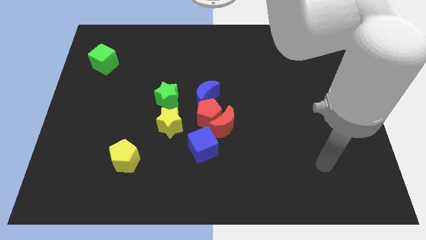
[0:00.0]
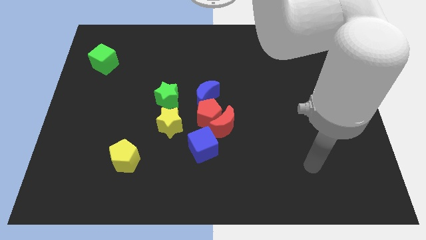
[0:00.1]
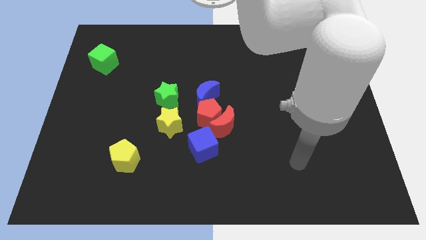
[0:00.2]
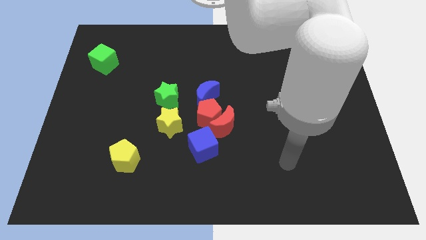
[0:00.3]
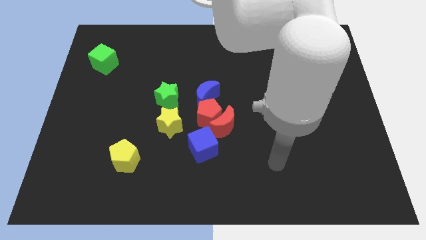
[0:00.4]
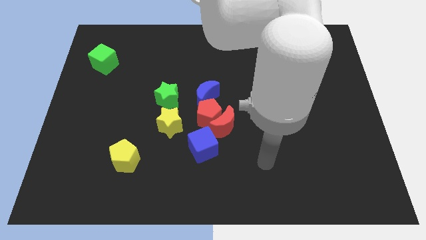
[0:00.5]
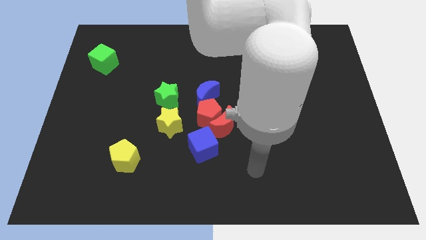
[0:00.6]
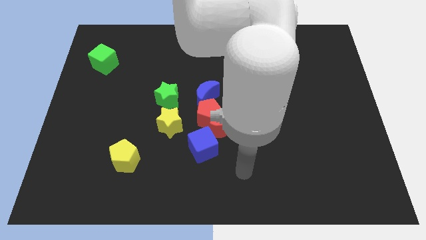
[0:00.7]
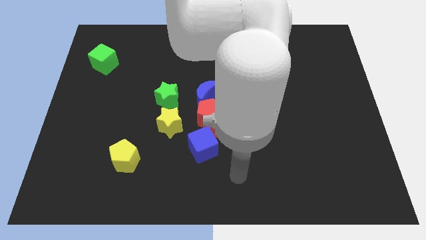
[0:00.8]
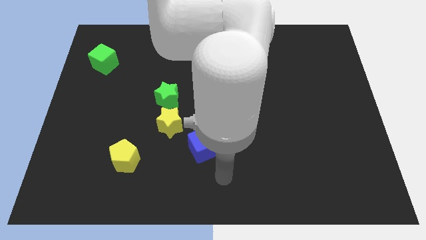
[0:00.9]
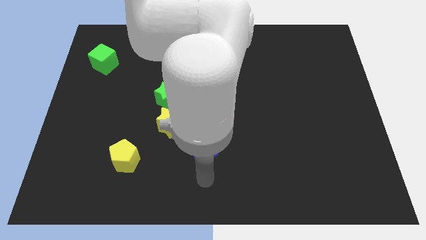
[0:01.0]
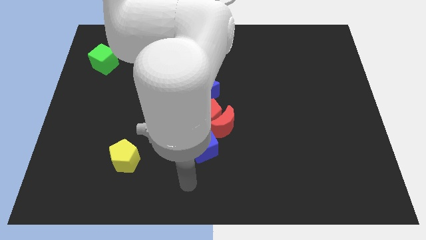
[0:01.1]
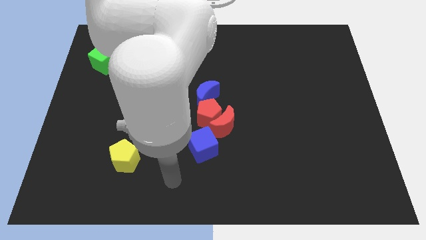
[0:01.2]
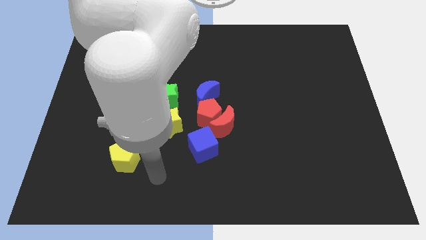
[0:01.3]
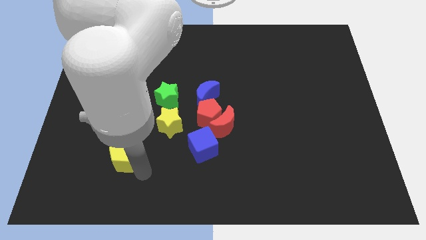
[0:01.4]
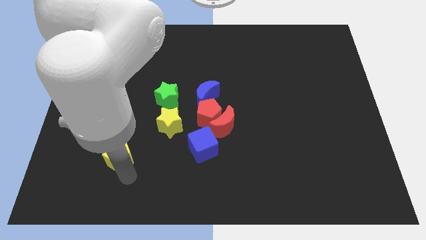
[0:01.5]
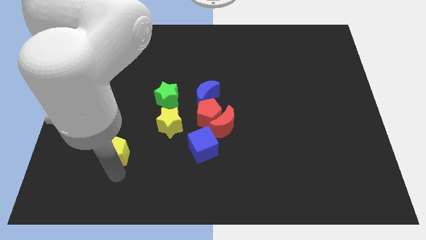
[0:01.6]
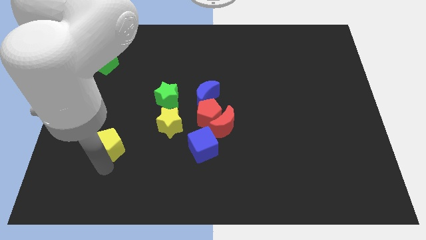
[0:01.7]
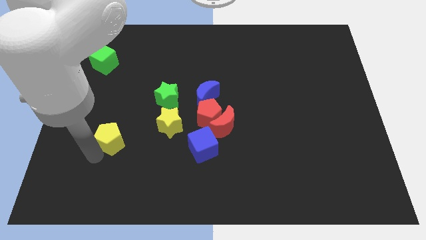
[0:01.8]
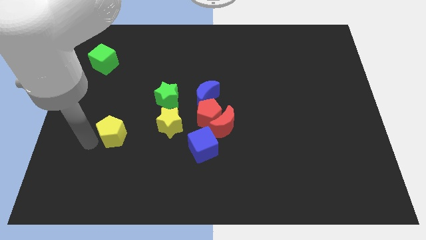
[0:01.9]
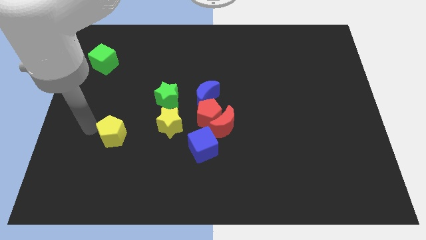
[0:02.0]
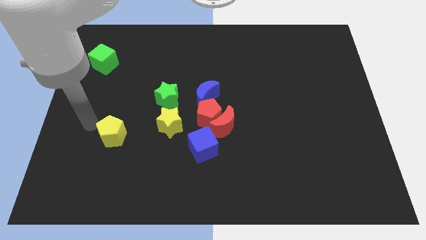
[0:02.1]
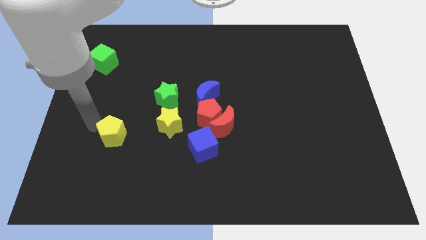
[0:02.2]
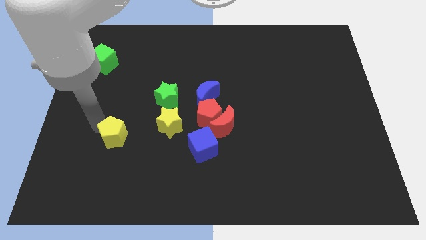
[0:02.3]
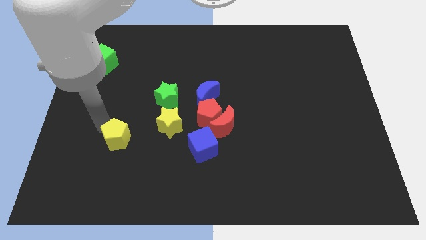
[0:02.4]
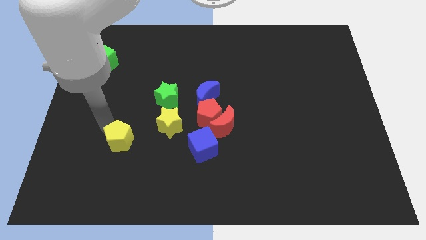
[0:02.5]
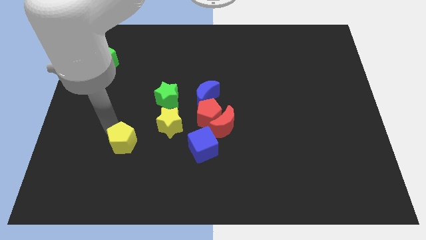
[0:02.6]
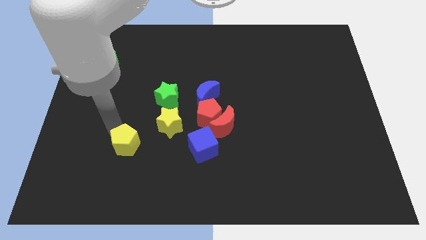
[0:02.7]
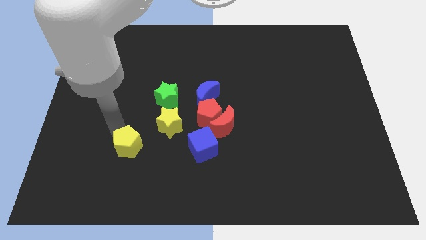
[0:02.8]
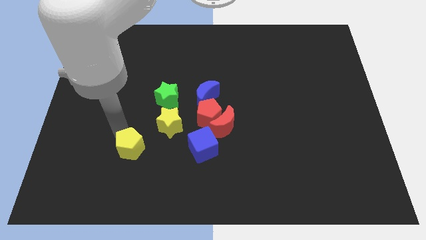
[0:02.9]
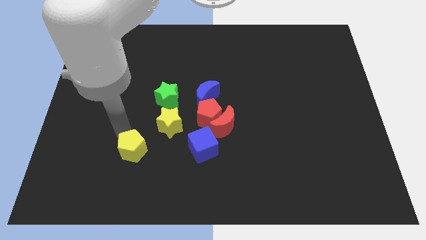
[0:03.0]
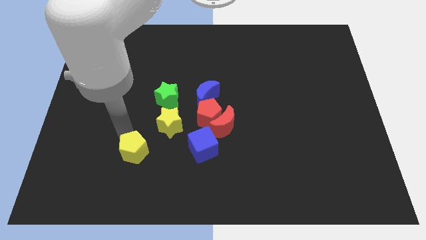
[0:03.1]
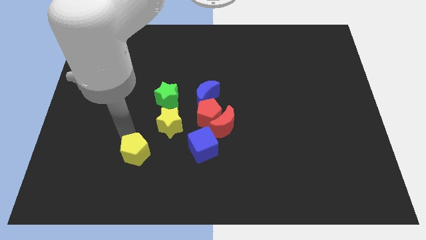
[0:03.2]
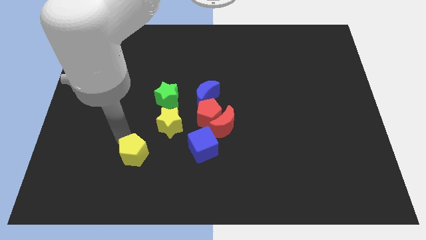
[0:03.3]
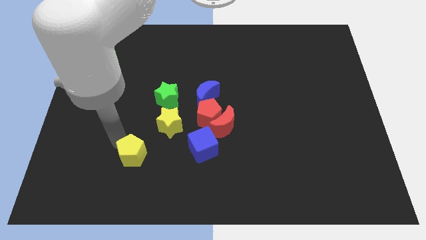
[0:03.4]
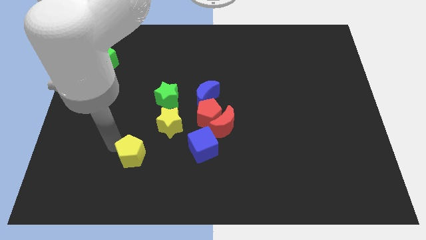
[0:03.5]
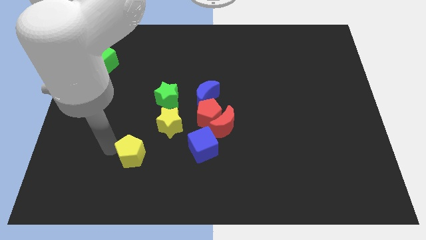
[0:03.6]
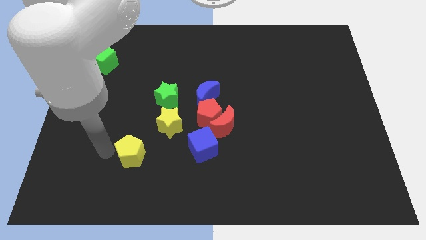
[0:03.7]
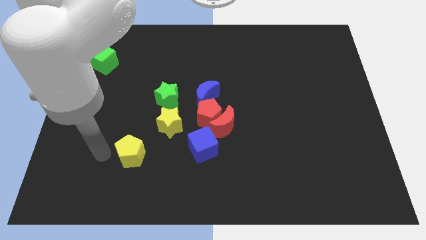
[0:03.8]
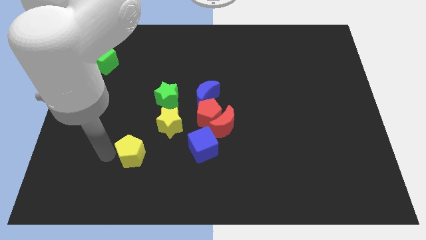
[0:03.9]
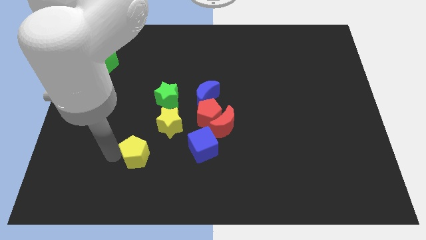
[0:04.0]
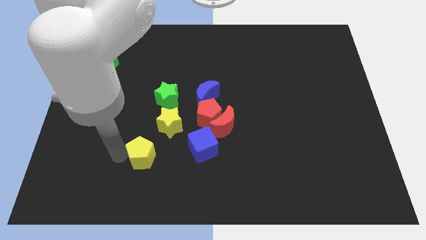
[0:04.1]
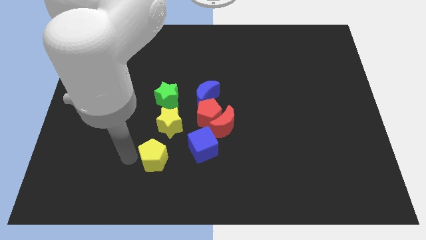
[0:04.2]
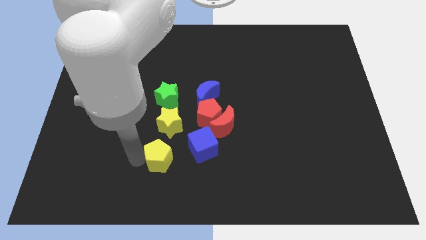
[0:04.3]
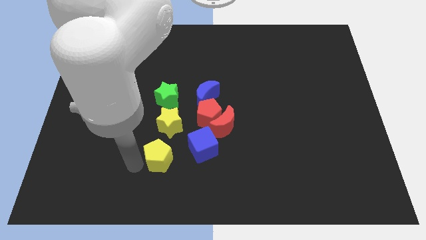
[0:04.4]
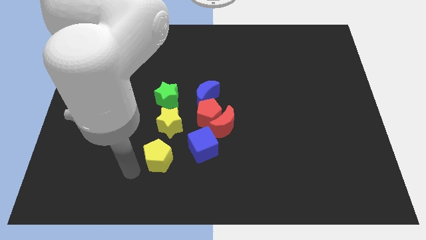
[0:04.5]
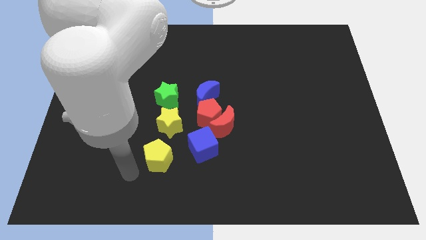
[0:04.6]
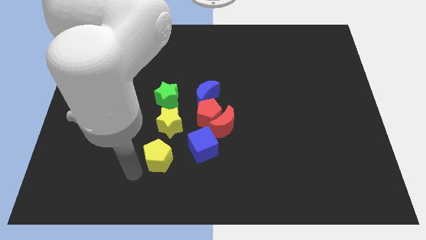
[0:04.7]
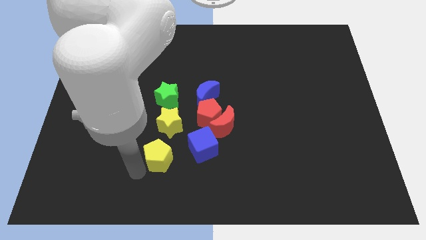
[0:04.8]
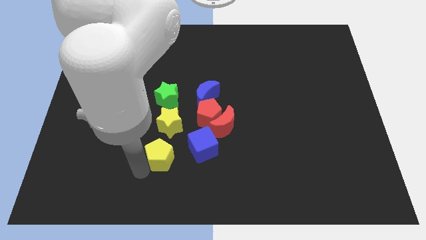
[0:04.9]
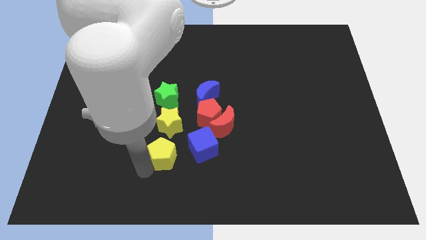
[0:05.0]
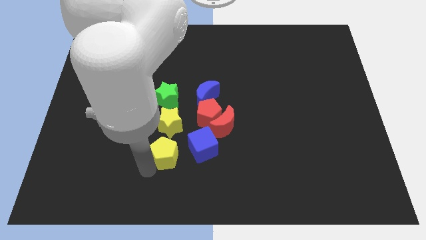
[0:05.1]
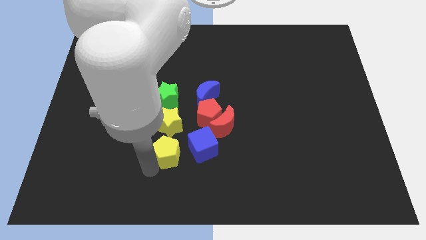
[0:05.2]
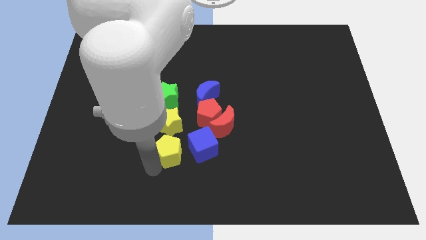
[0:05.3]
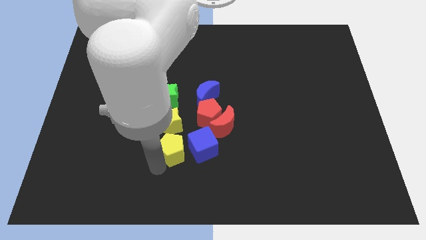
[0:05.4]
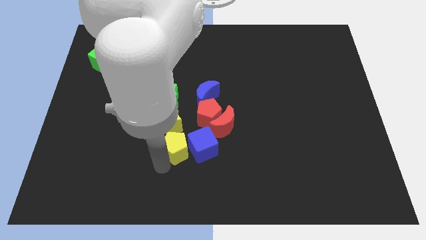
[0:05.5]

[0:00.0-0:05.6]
slightly move the yellow pentagon upwards and then right

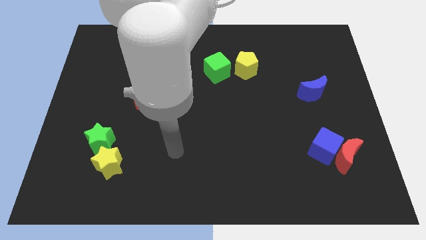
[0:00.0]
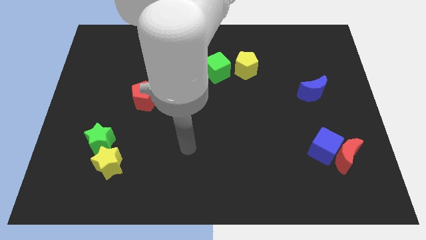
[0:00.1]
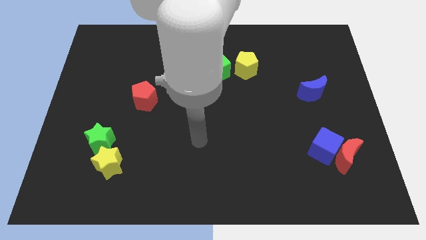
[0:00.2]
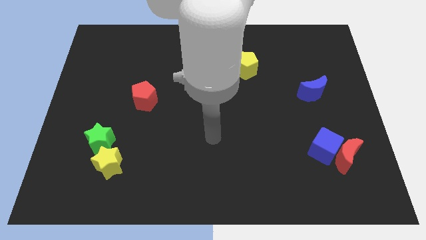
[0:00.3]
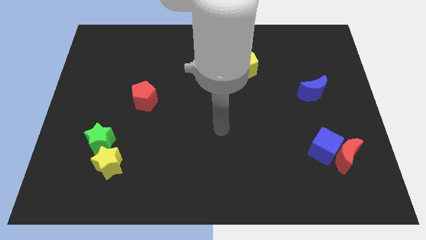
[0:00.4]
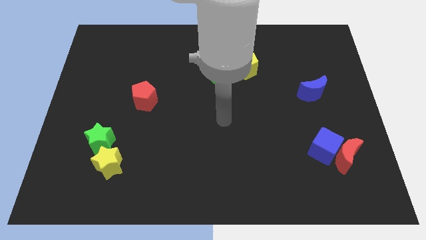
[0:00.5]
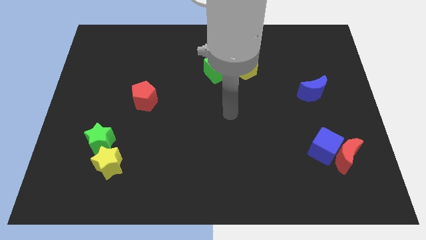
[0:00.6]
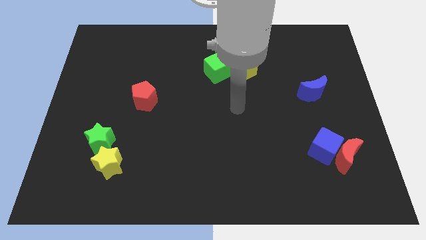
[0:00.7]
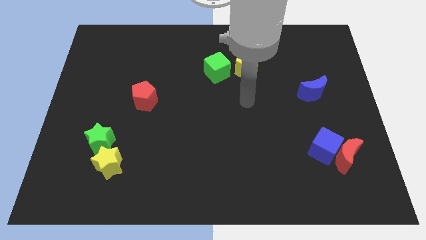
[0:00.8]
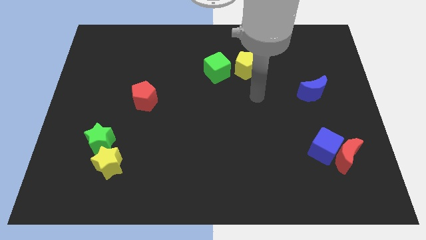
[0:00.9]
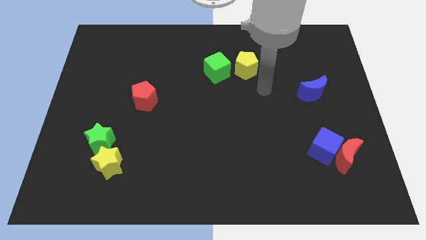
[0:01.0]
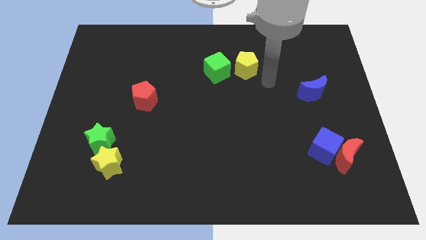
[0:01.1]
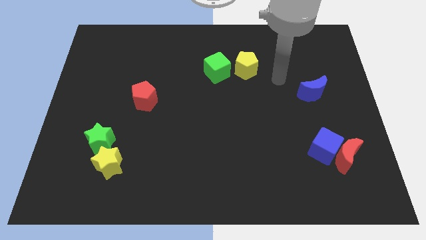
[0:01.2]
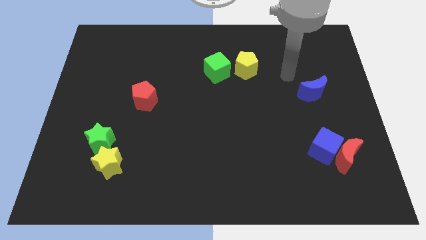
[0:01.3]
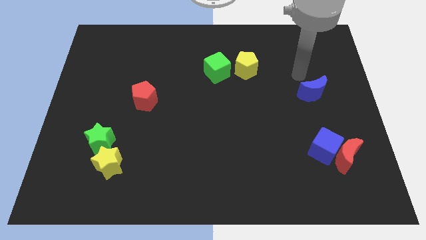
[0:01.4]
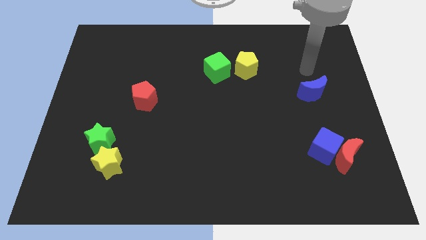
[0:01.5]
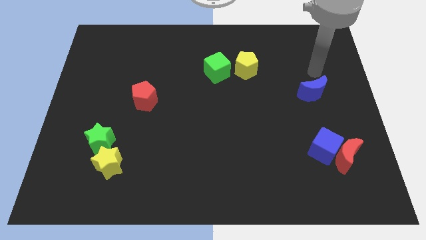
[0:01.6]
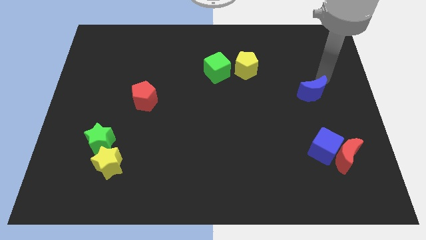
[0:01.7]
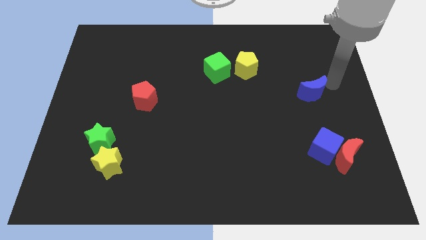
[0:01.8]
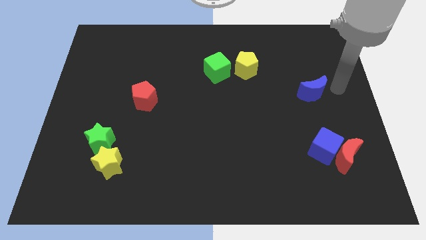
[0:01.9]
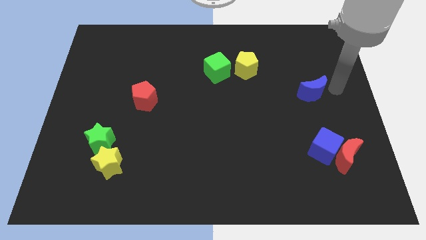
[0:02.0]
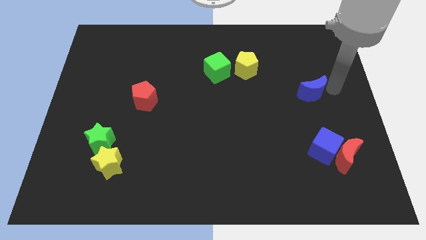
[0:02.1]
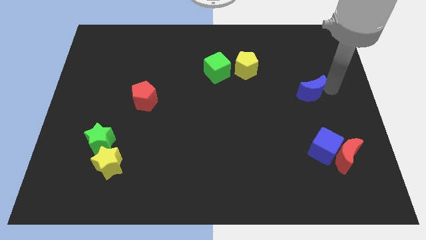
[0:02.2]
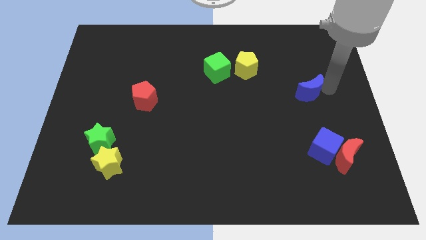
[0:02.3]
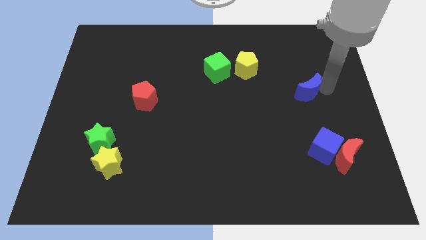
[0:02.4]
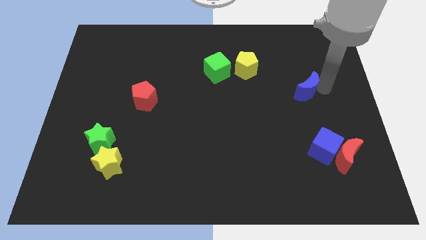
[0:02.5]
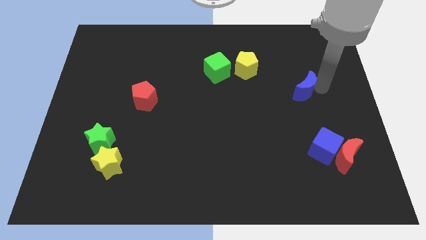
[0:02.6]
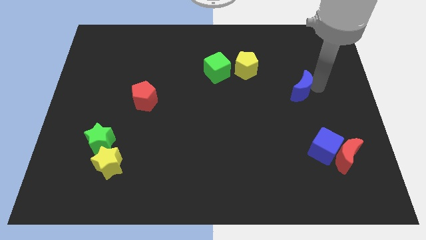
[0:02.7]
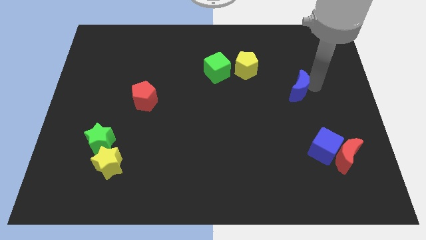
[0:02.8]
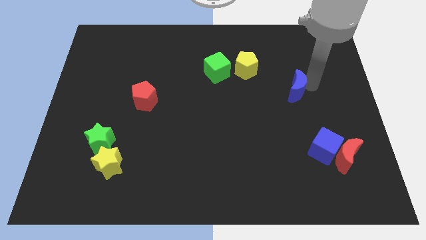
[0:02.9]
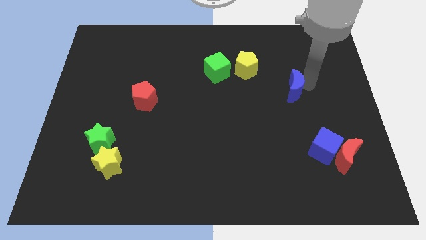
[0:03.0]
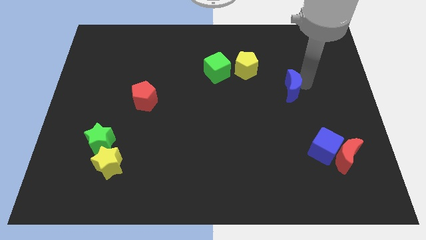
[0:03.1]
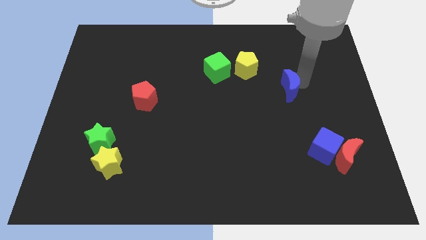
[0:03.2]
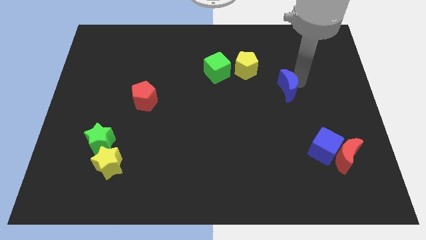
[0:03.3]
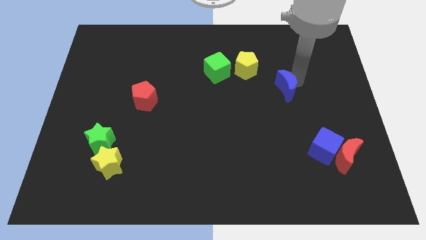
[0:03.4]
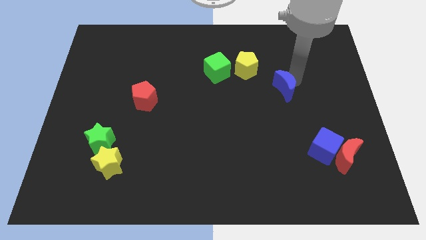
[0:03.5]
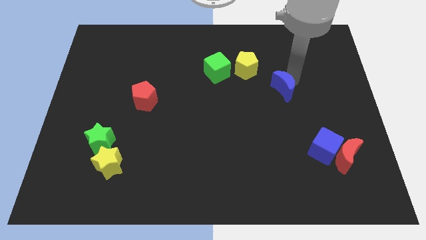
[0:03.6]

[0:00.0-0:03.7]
push the blue moon left a little bit
